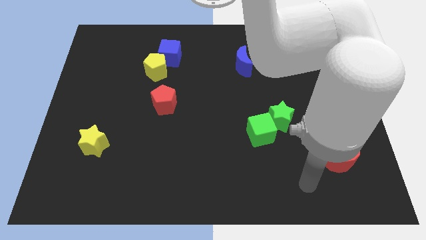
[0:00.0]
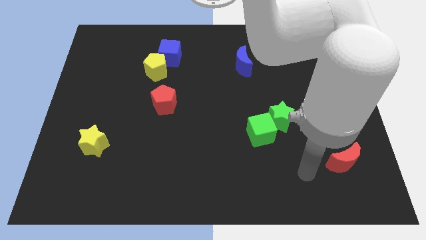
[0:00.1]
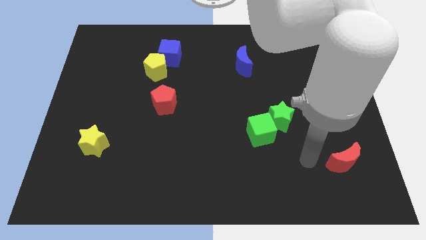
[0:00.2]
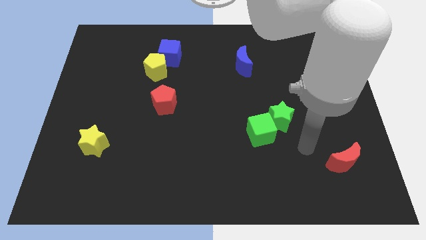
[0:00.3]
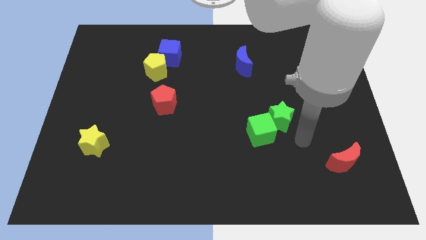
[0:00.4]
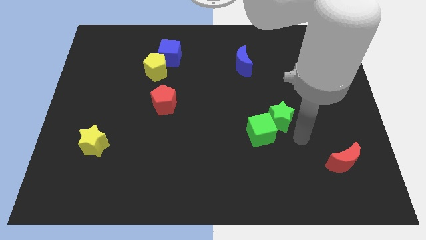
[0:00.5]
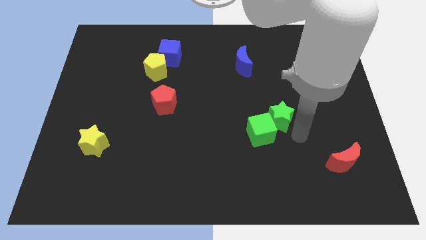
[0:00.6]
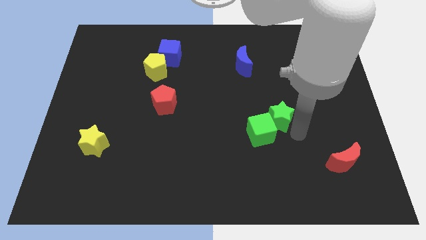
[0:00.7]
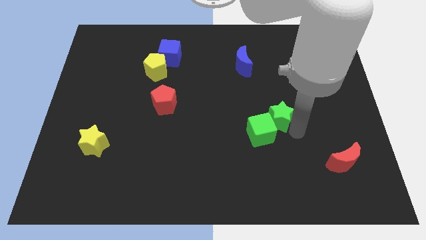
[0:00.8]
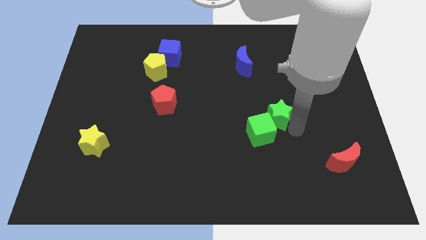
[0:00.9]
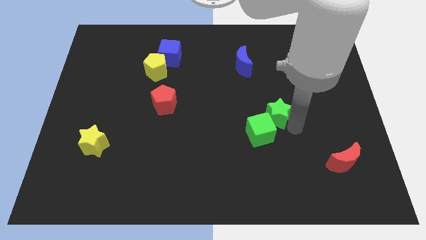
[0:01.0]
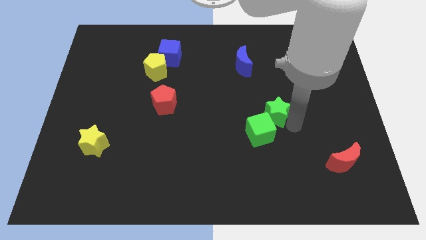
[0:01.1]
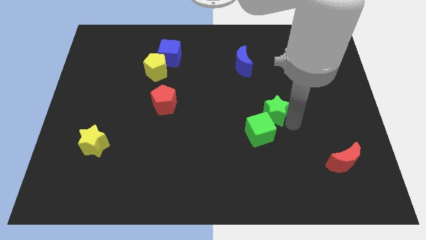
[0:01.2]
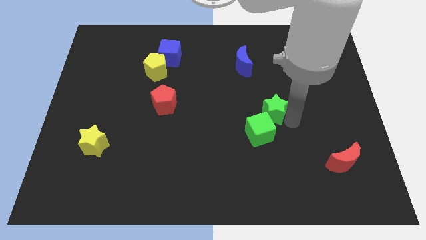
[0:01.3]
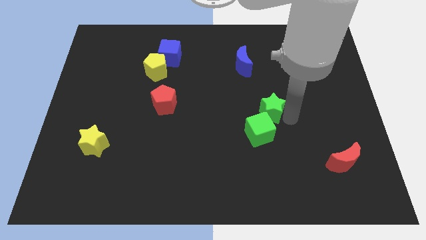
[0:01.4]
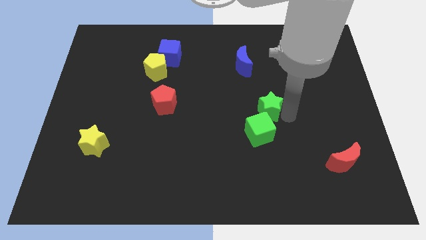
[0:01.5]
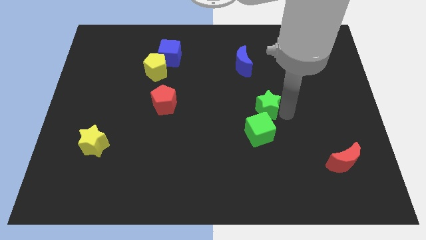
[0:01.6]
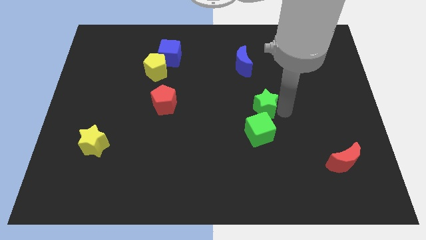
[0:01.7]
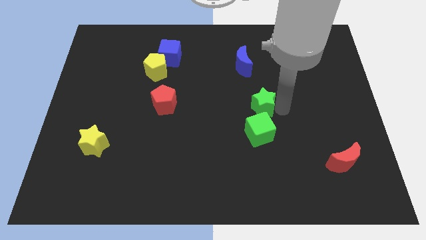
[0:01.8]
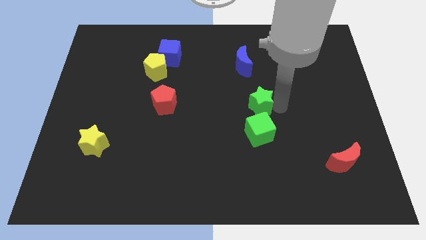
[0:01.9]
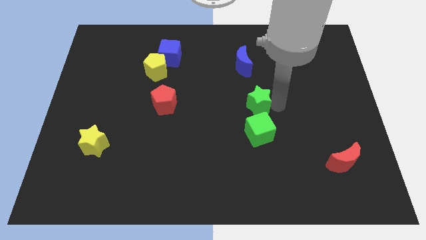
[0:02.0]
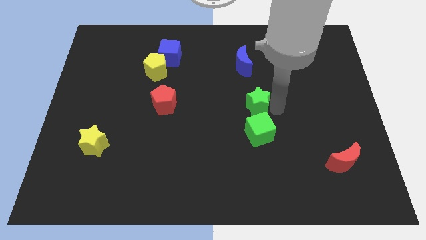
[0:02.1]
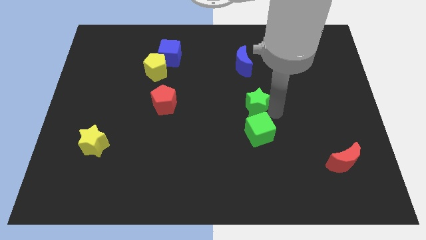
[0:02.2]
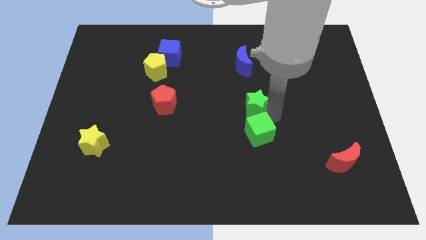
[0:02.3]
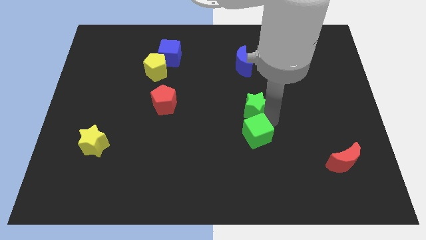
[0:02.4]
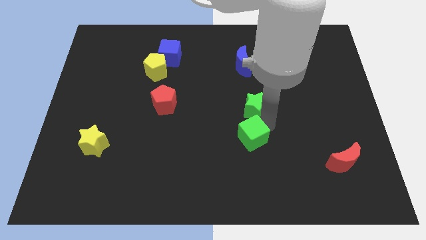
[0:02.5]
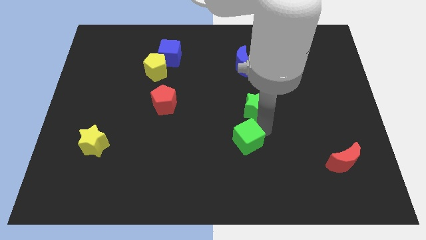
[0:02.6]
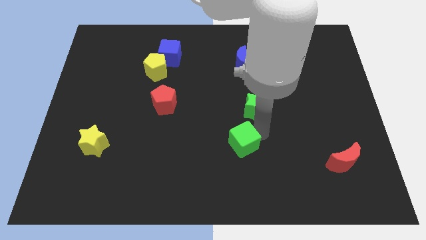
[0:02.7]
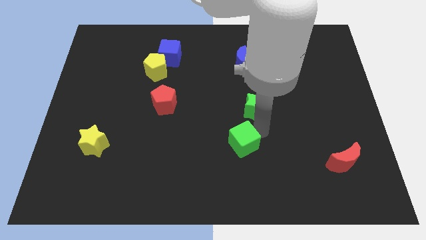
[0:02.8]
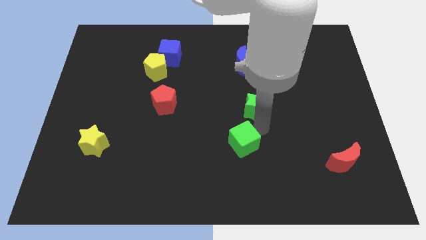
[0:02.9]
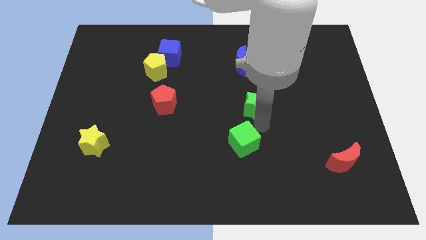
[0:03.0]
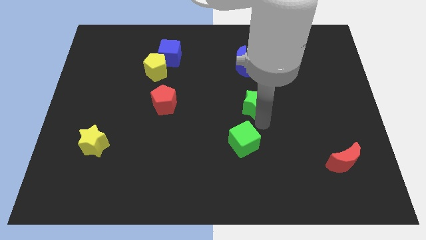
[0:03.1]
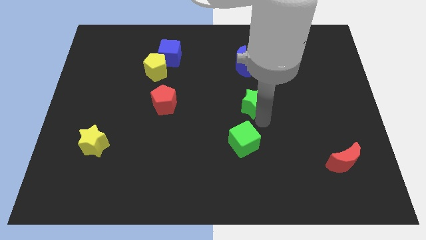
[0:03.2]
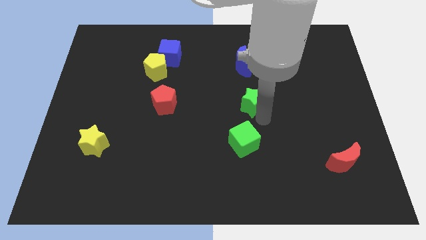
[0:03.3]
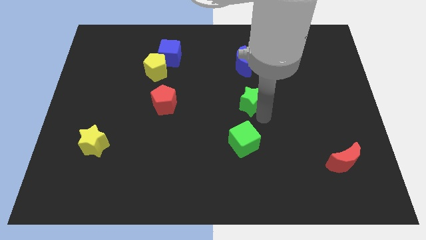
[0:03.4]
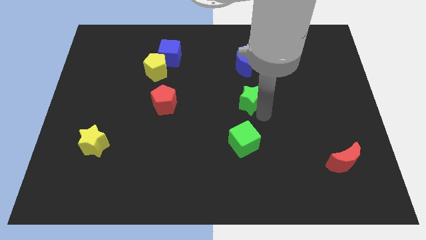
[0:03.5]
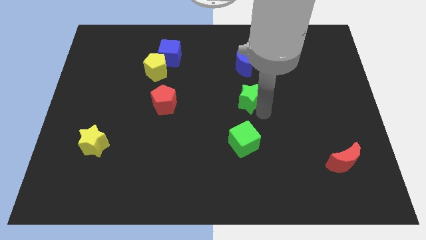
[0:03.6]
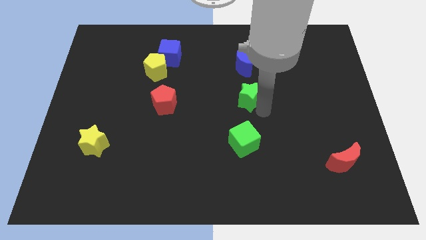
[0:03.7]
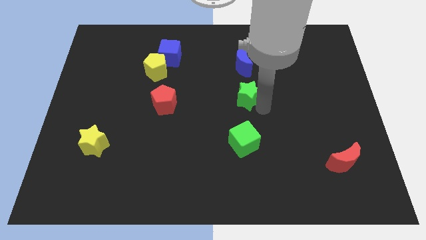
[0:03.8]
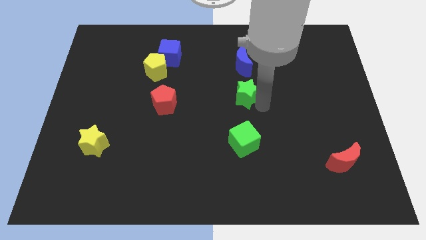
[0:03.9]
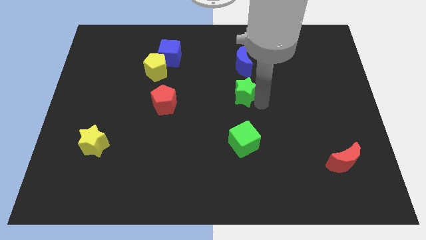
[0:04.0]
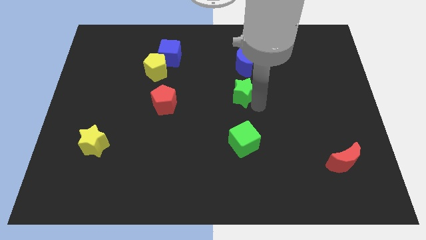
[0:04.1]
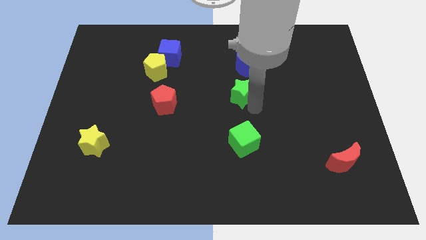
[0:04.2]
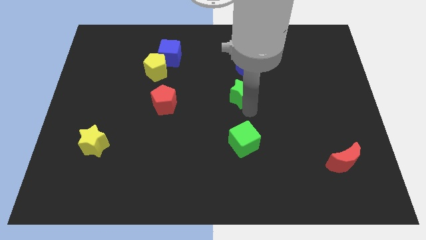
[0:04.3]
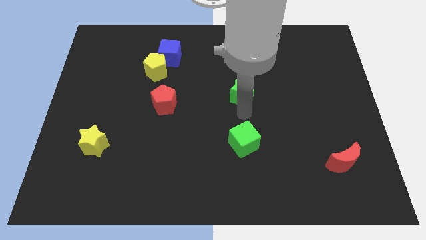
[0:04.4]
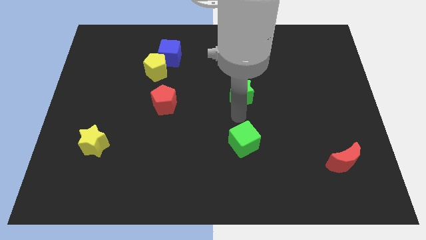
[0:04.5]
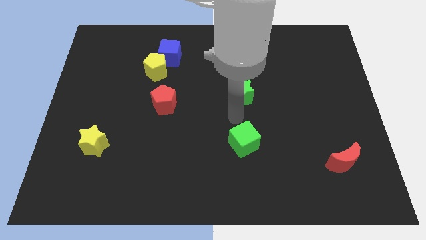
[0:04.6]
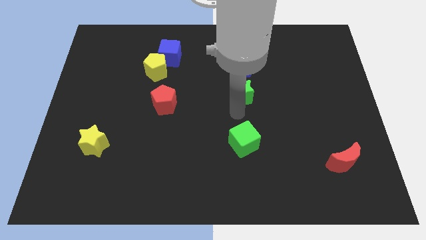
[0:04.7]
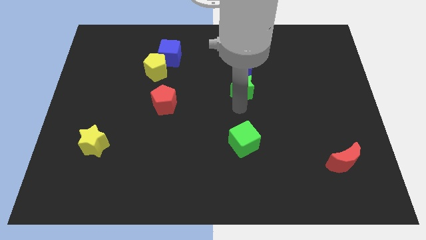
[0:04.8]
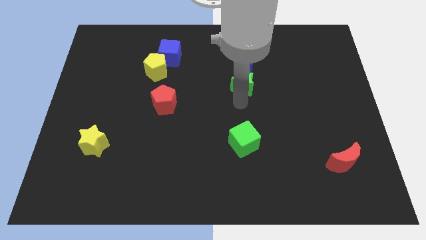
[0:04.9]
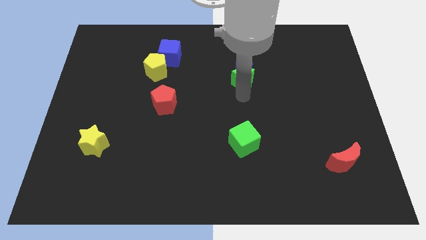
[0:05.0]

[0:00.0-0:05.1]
move the green star next to the blue moon

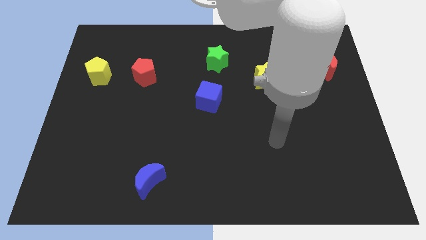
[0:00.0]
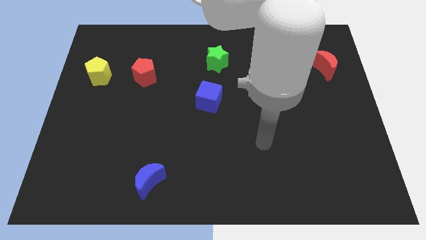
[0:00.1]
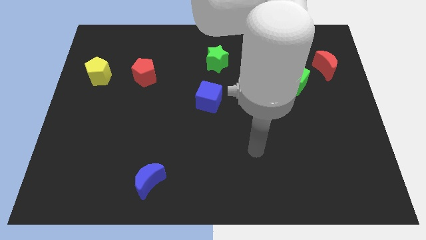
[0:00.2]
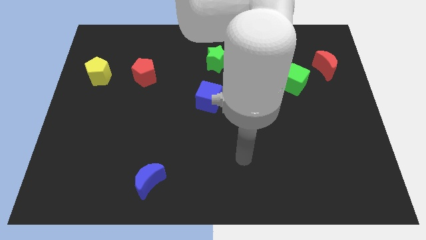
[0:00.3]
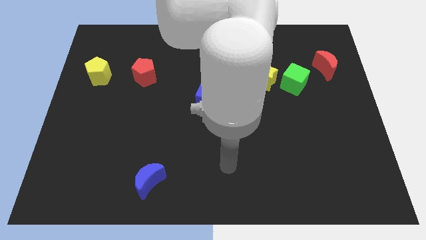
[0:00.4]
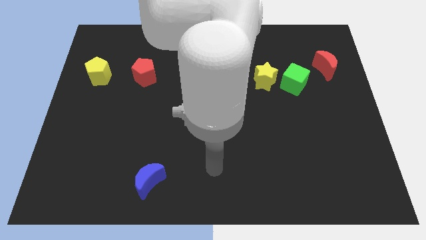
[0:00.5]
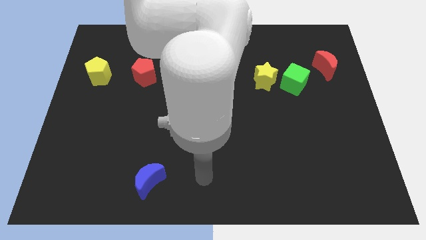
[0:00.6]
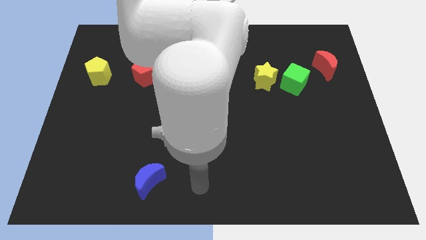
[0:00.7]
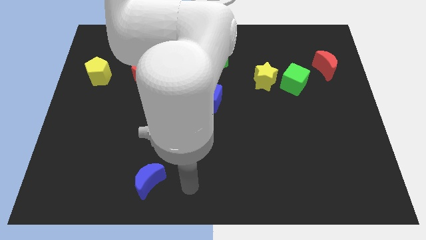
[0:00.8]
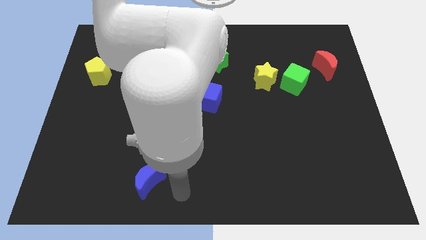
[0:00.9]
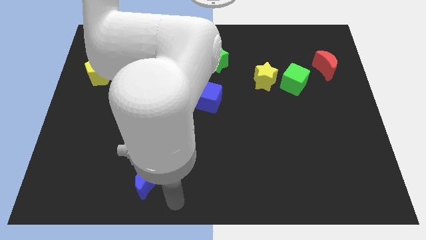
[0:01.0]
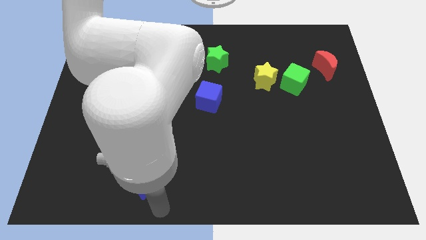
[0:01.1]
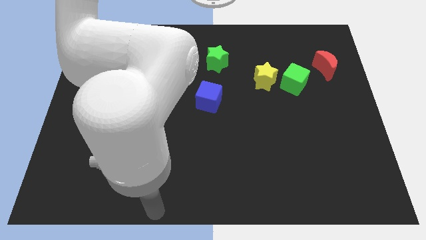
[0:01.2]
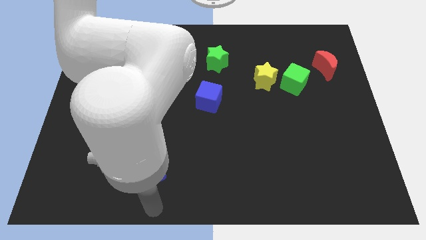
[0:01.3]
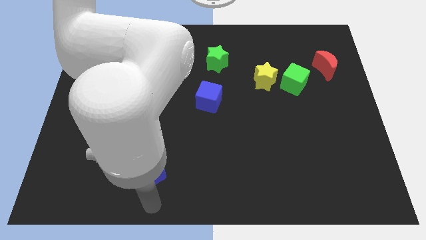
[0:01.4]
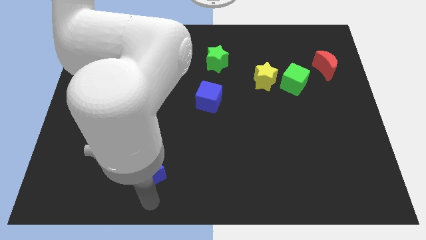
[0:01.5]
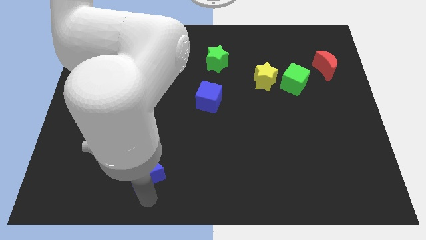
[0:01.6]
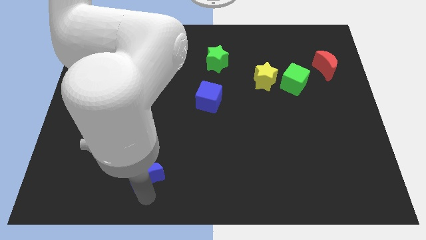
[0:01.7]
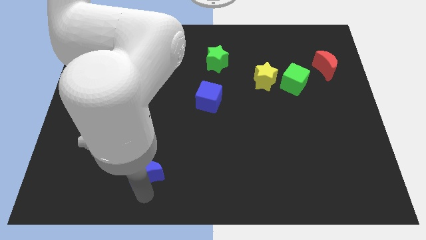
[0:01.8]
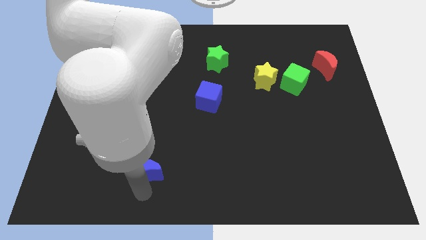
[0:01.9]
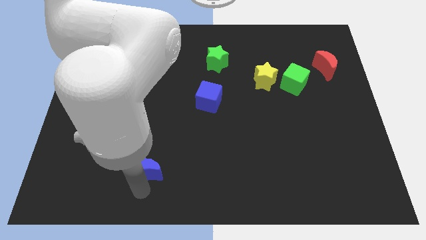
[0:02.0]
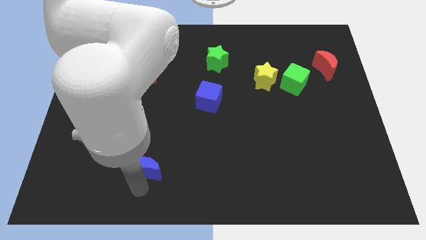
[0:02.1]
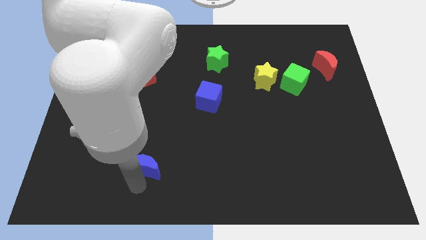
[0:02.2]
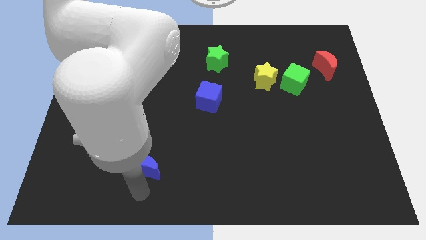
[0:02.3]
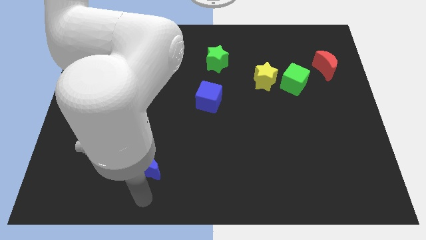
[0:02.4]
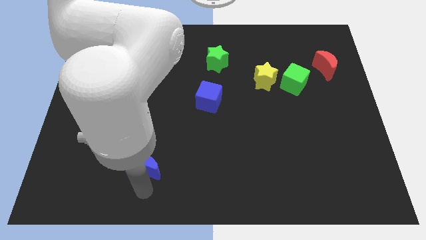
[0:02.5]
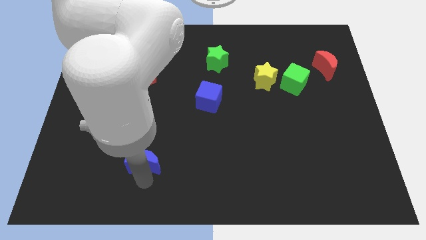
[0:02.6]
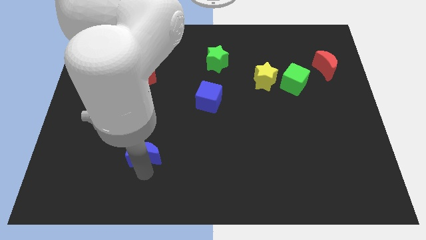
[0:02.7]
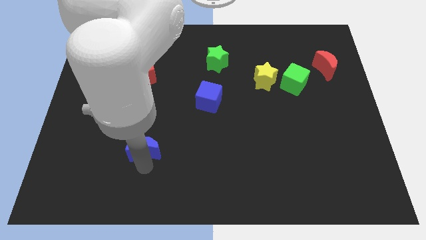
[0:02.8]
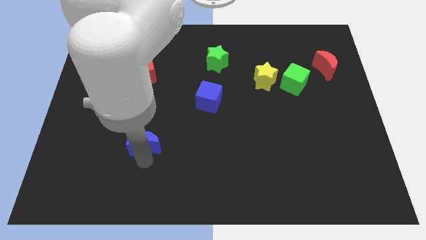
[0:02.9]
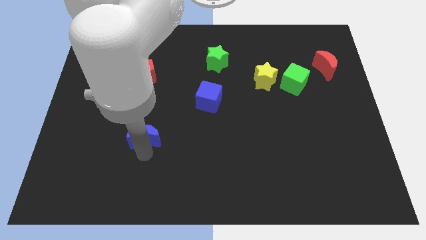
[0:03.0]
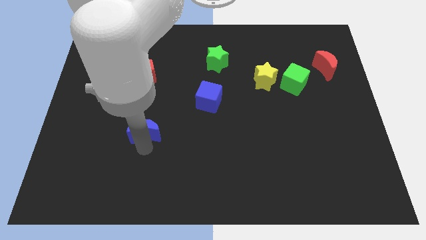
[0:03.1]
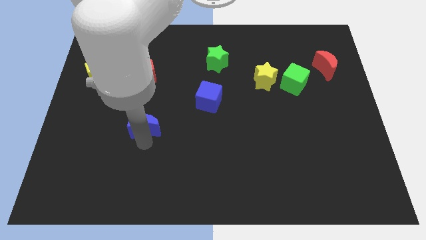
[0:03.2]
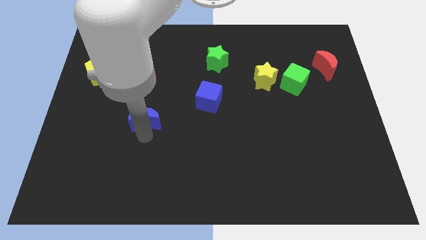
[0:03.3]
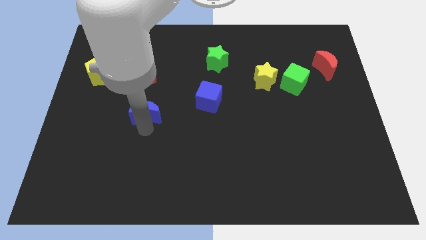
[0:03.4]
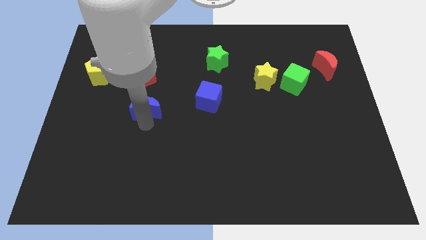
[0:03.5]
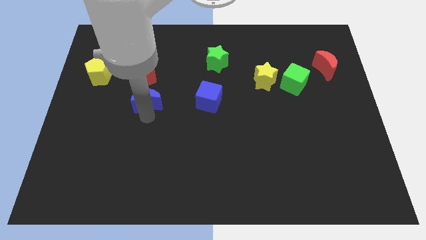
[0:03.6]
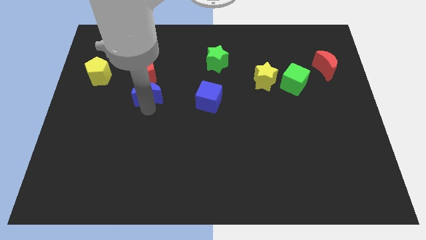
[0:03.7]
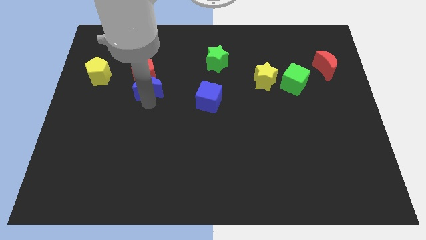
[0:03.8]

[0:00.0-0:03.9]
move the blue moon close to the red pentagon
